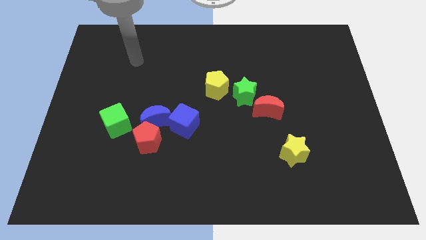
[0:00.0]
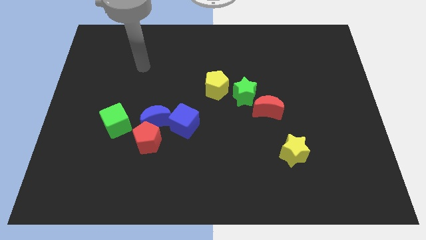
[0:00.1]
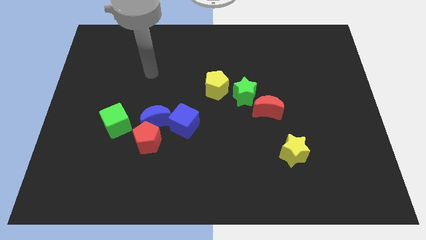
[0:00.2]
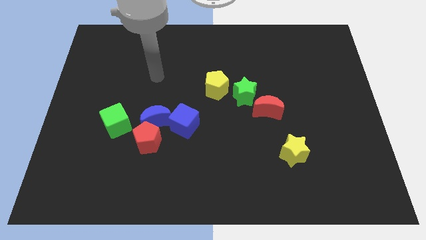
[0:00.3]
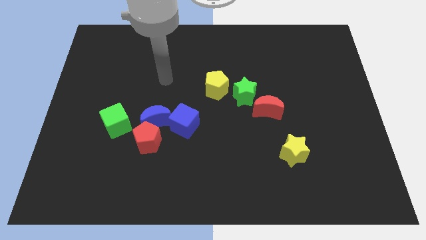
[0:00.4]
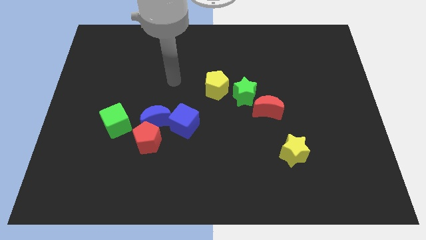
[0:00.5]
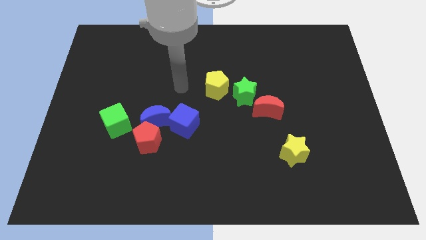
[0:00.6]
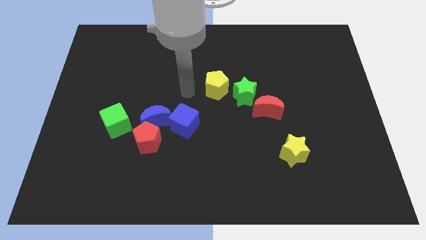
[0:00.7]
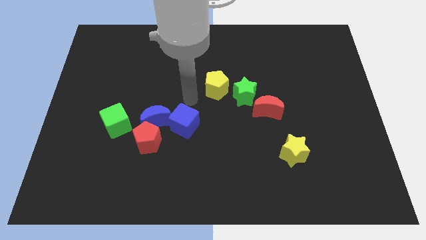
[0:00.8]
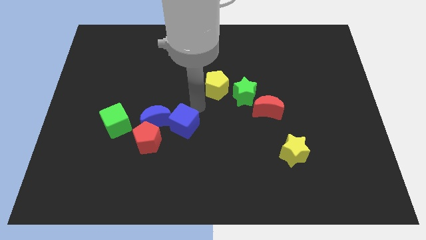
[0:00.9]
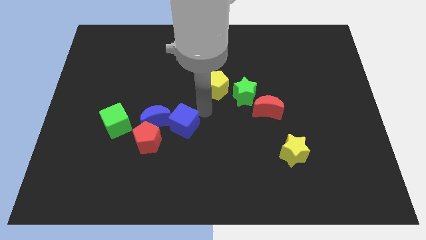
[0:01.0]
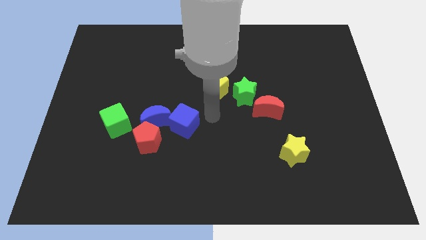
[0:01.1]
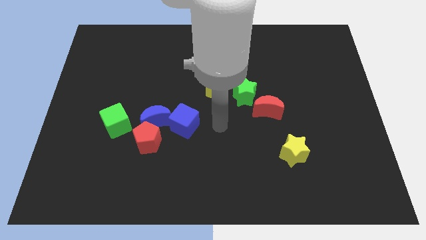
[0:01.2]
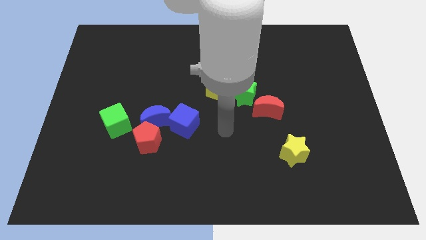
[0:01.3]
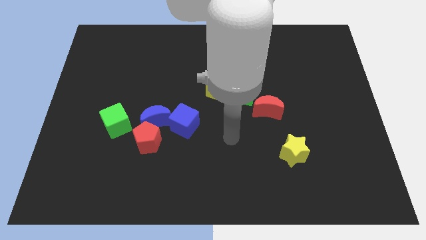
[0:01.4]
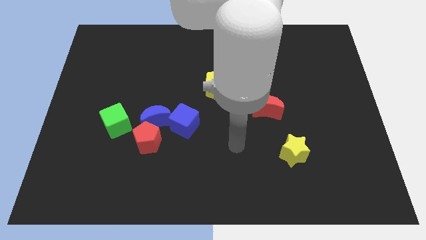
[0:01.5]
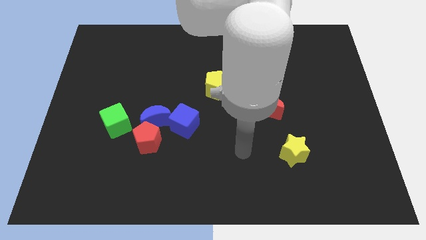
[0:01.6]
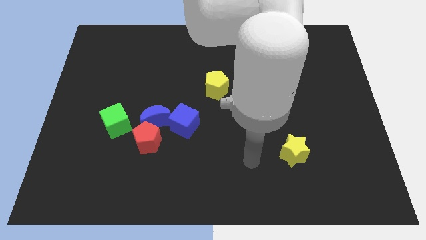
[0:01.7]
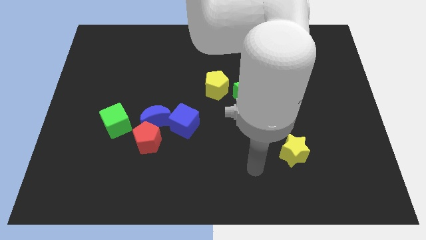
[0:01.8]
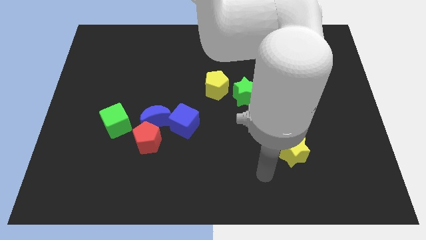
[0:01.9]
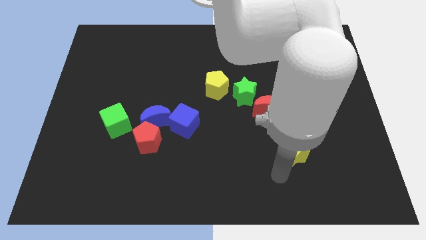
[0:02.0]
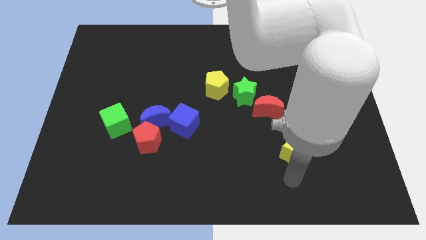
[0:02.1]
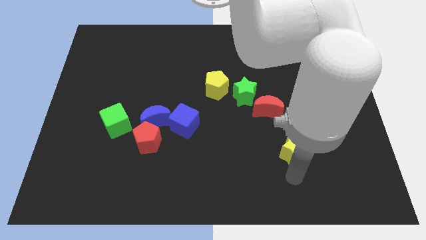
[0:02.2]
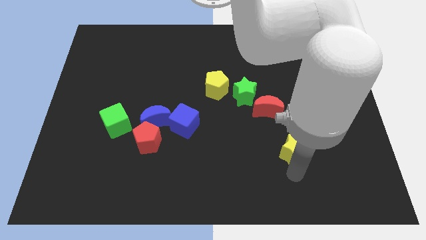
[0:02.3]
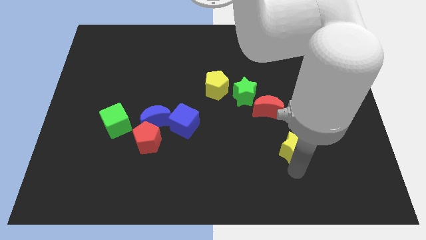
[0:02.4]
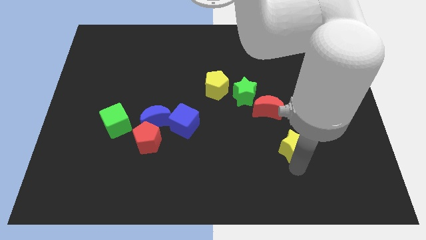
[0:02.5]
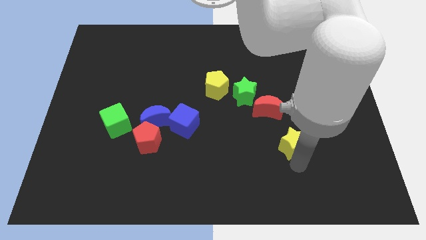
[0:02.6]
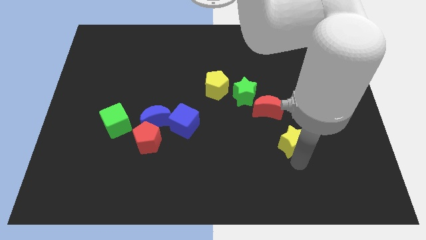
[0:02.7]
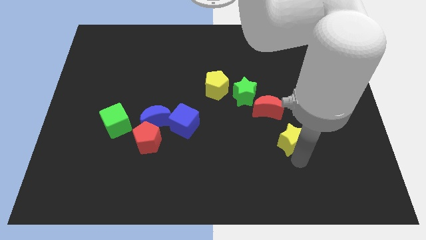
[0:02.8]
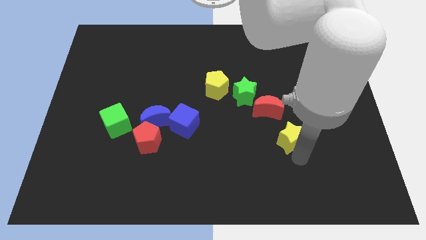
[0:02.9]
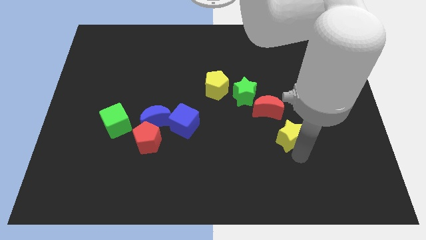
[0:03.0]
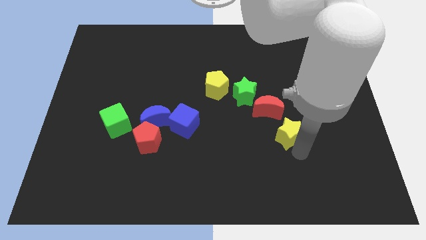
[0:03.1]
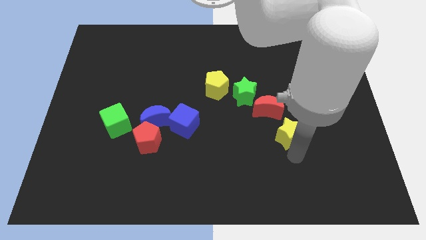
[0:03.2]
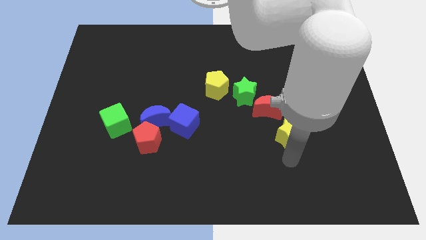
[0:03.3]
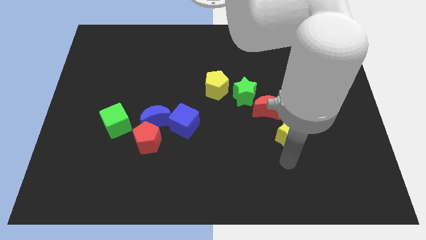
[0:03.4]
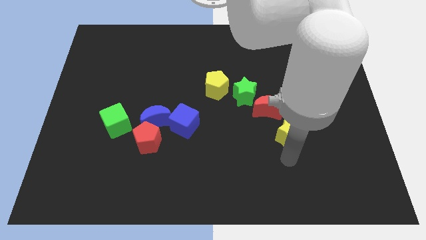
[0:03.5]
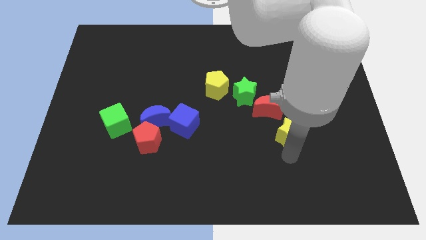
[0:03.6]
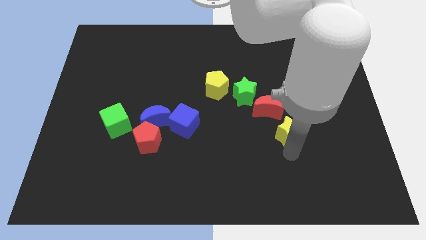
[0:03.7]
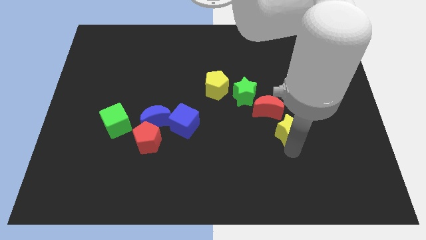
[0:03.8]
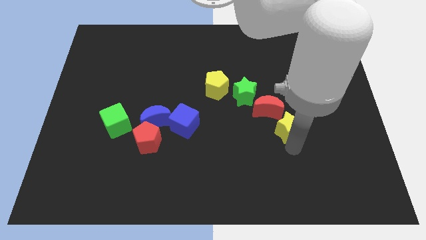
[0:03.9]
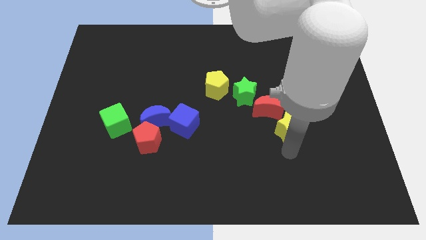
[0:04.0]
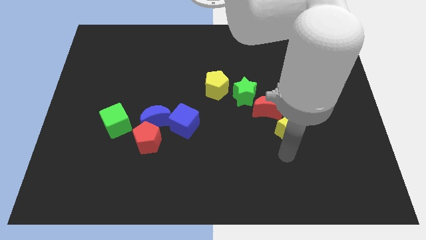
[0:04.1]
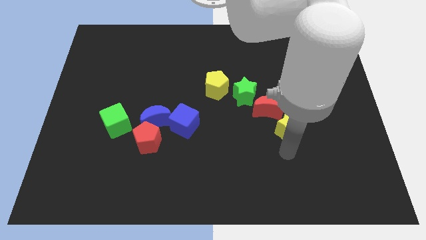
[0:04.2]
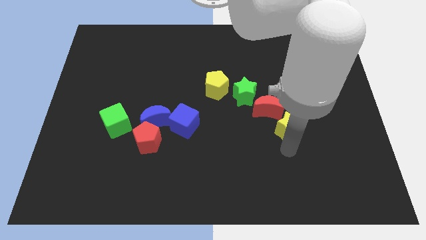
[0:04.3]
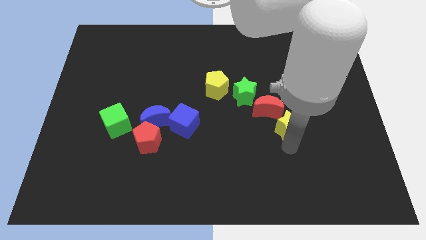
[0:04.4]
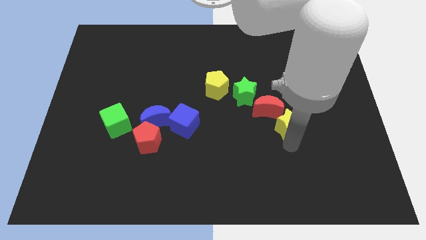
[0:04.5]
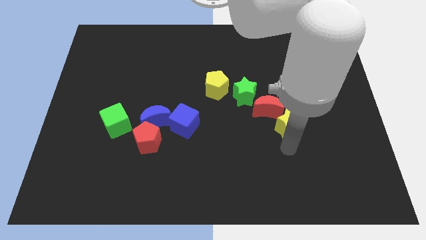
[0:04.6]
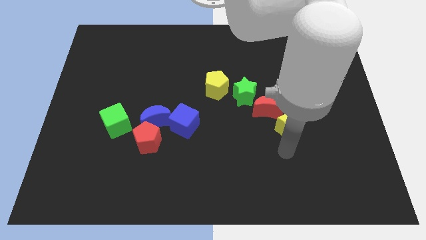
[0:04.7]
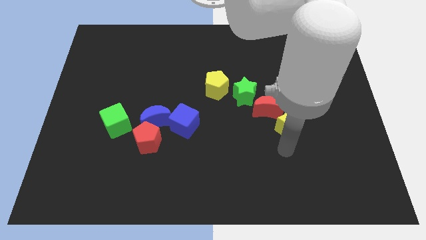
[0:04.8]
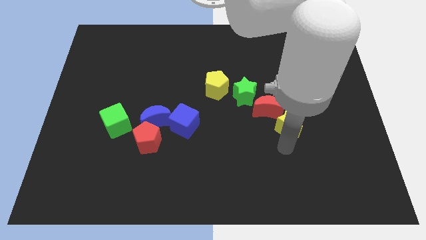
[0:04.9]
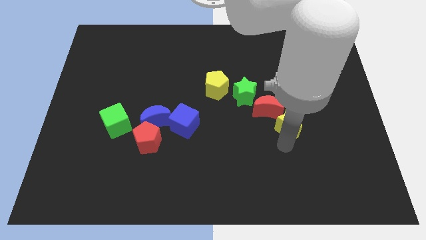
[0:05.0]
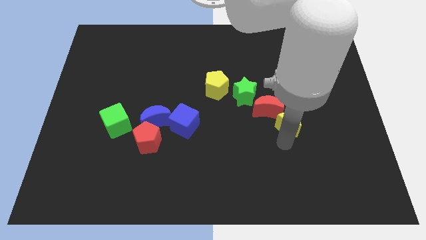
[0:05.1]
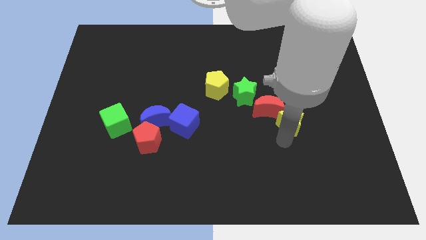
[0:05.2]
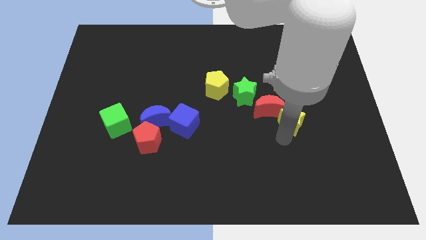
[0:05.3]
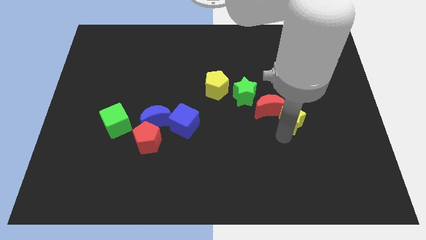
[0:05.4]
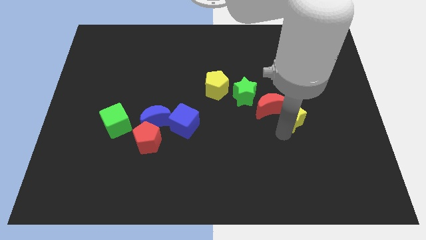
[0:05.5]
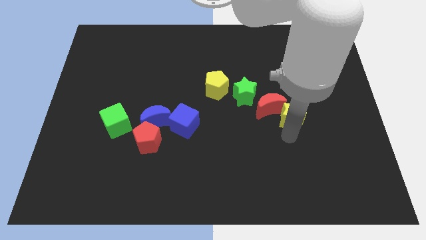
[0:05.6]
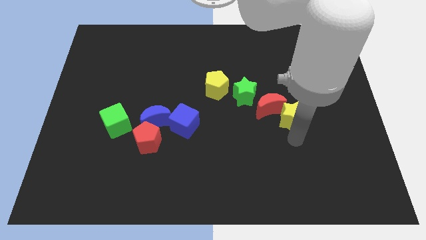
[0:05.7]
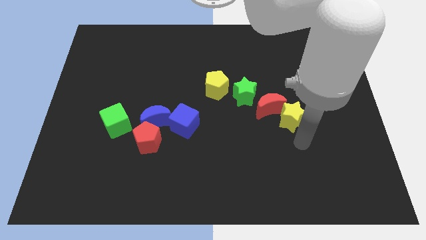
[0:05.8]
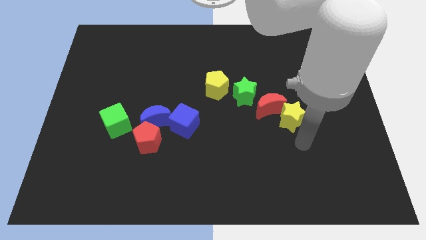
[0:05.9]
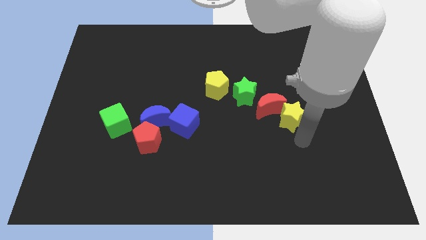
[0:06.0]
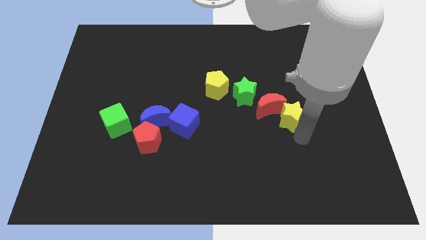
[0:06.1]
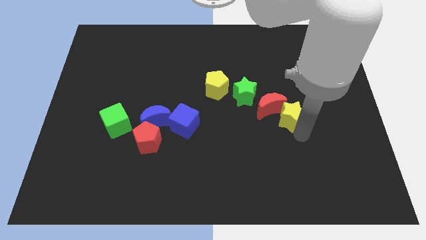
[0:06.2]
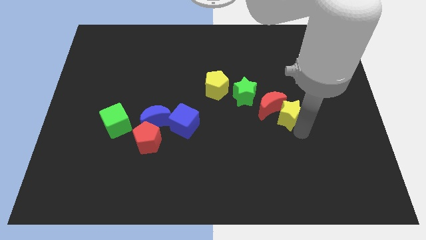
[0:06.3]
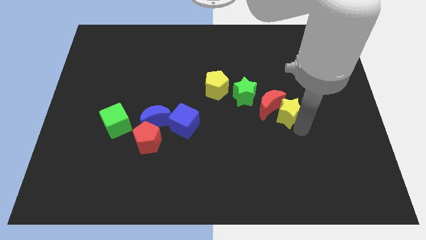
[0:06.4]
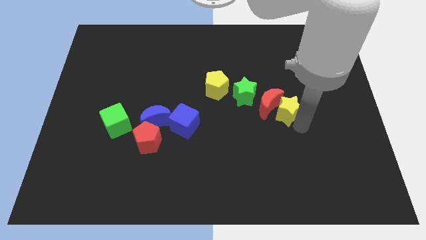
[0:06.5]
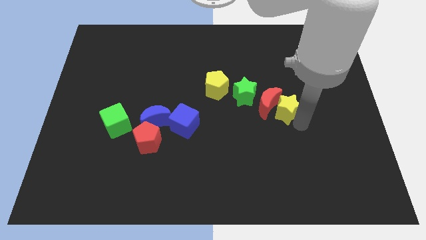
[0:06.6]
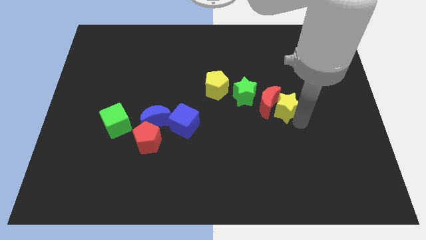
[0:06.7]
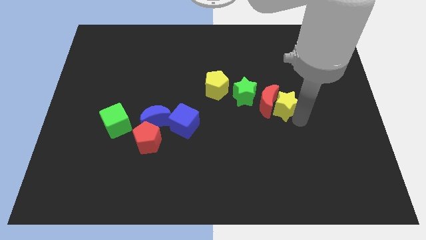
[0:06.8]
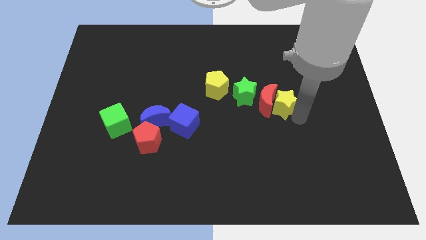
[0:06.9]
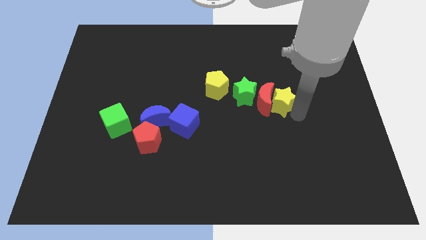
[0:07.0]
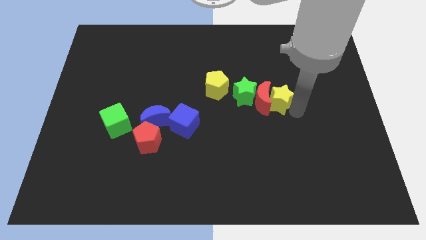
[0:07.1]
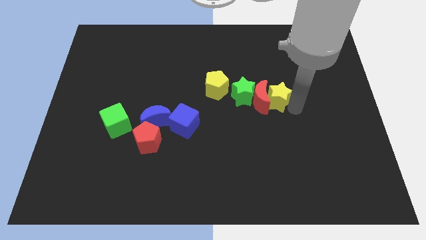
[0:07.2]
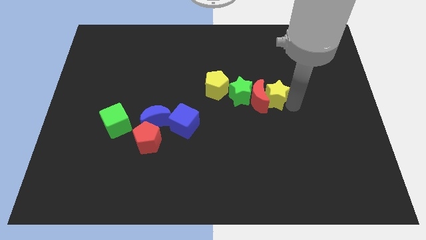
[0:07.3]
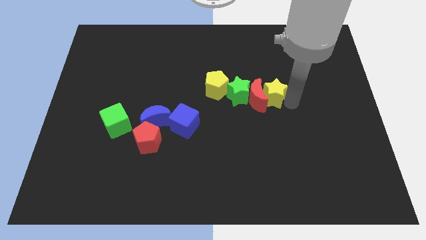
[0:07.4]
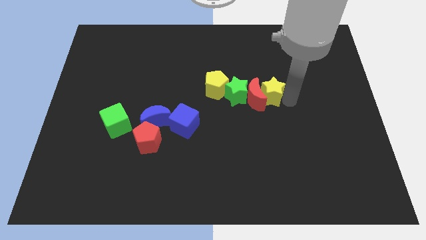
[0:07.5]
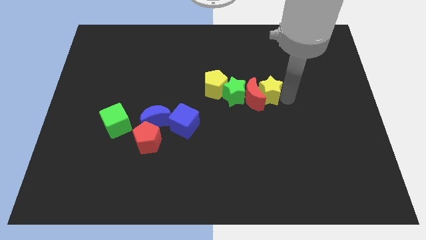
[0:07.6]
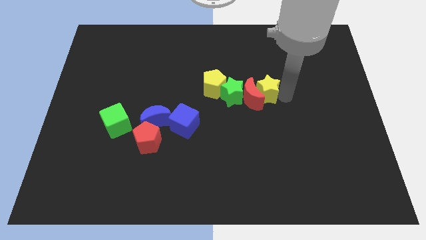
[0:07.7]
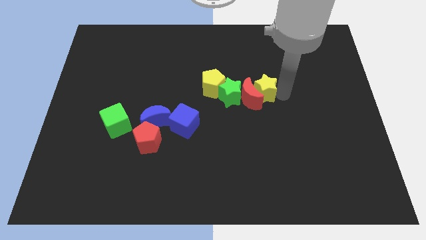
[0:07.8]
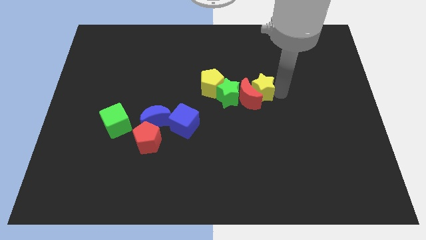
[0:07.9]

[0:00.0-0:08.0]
put the yellow star diagonally up and to the right of the green star
